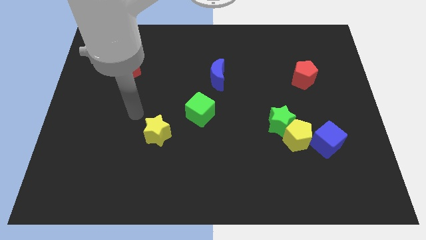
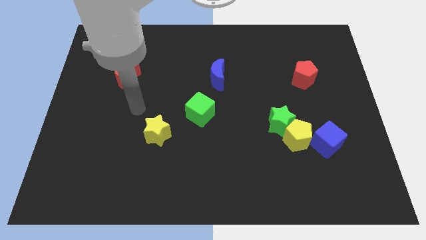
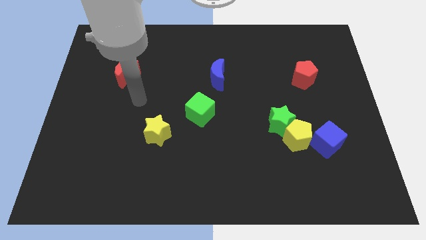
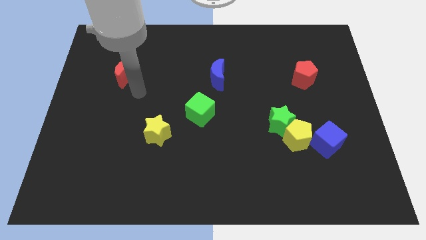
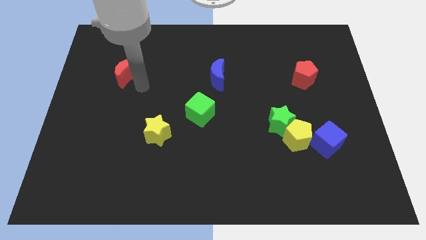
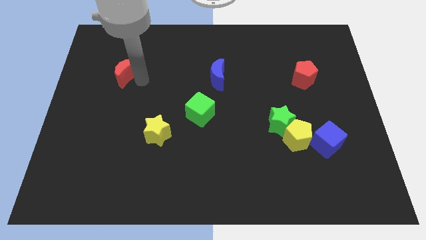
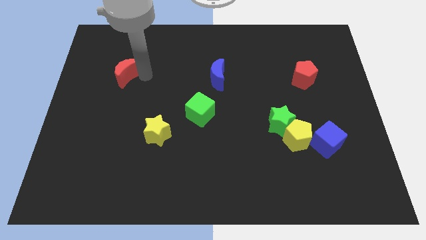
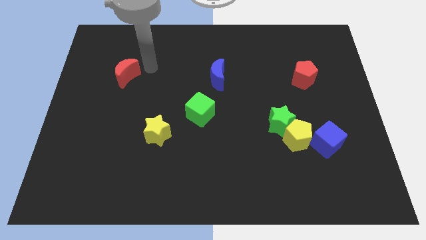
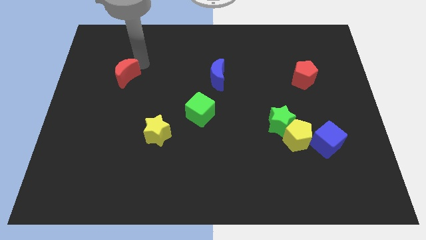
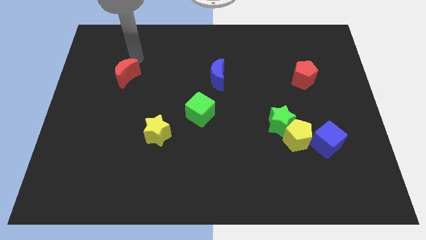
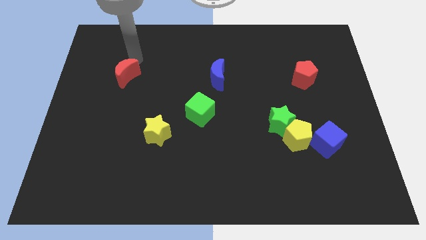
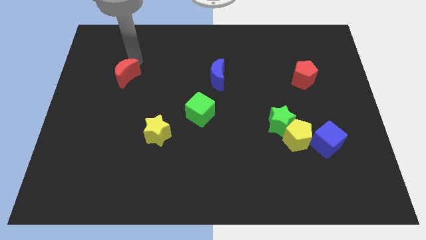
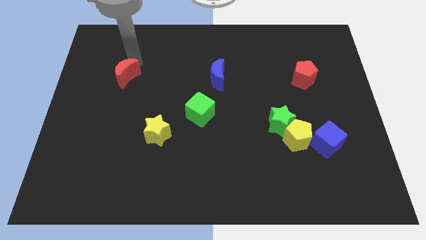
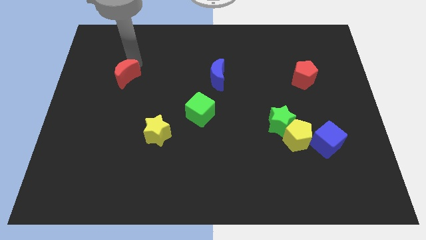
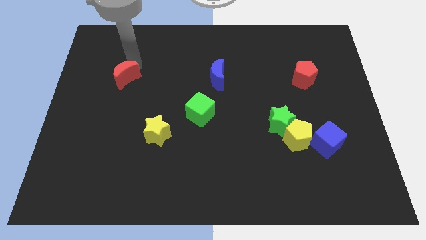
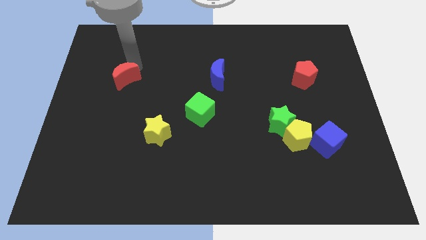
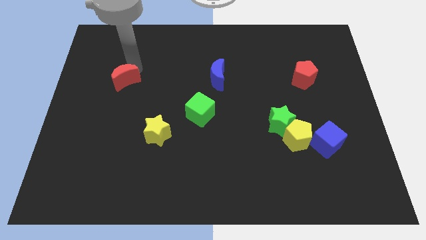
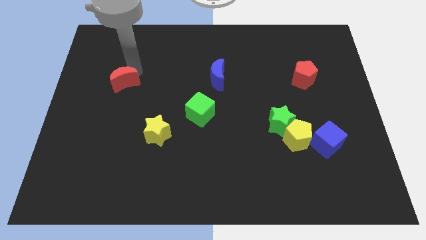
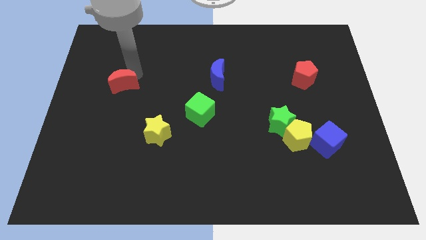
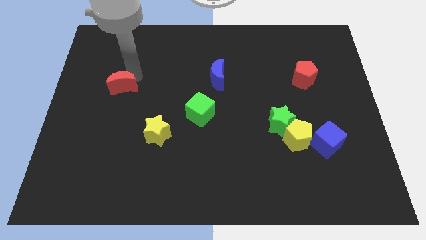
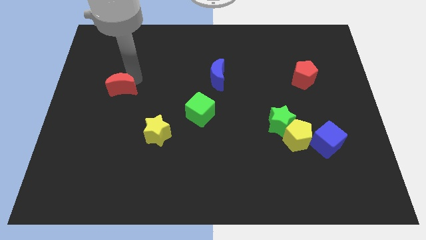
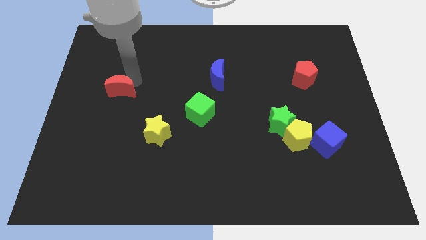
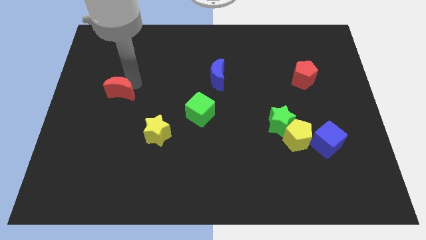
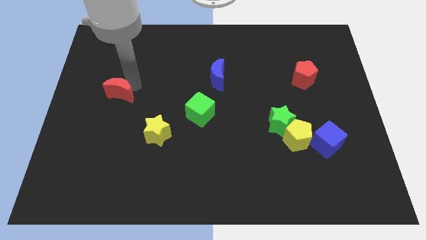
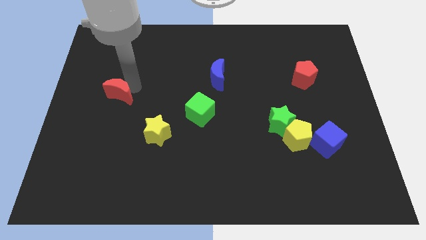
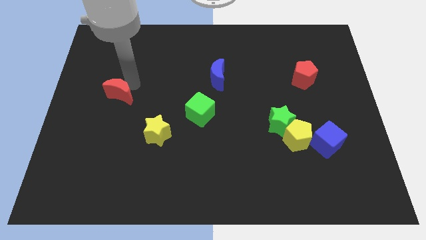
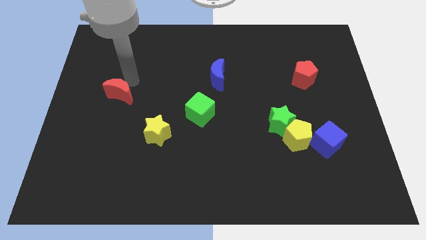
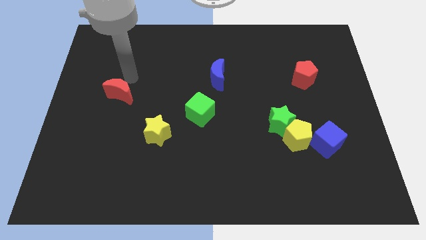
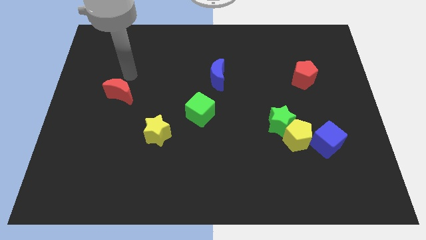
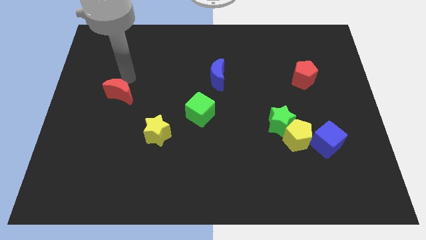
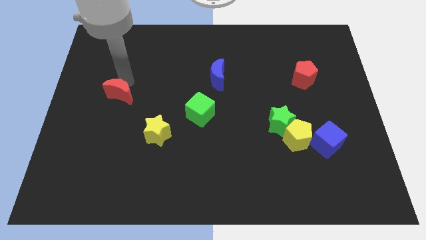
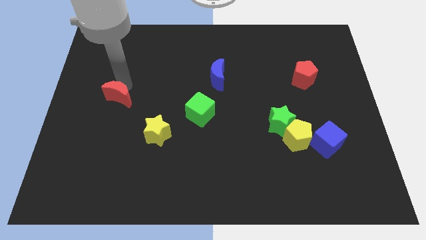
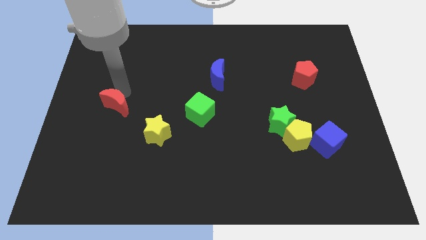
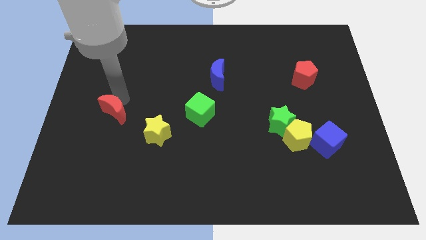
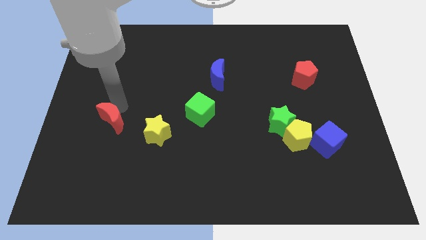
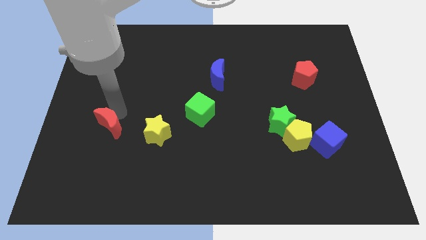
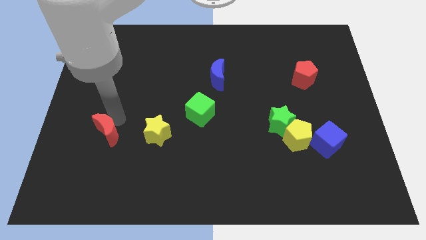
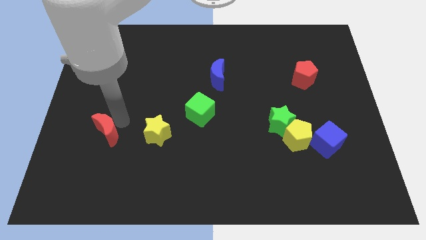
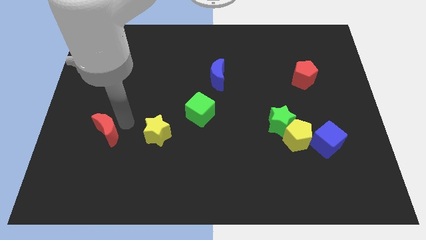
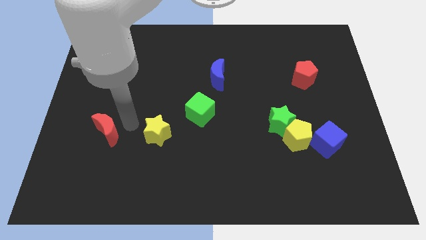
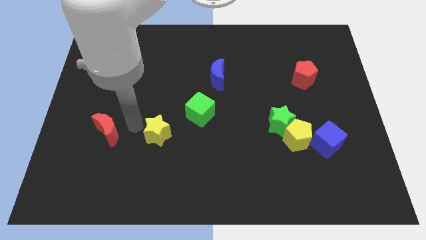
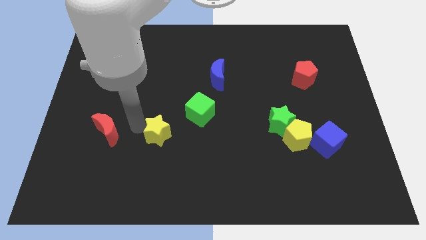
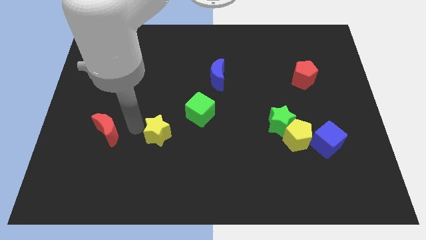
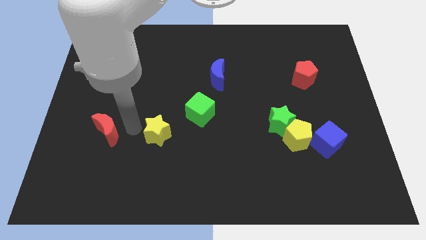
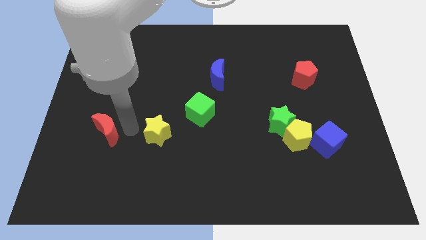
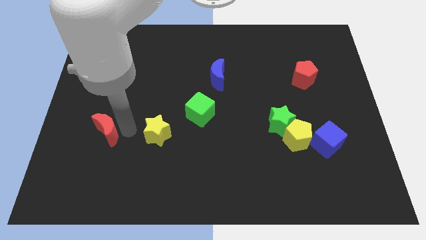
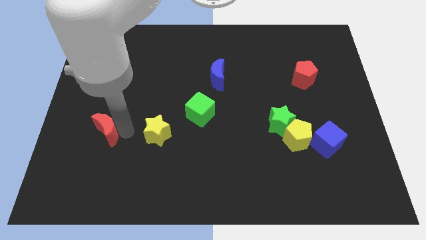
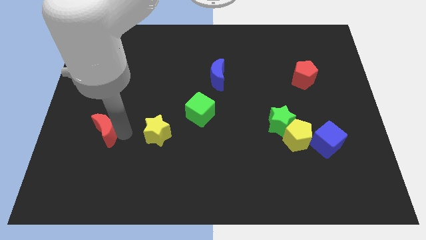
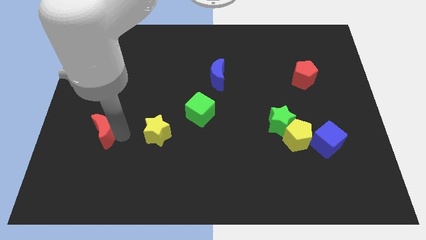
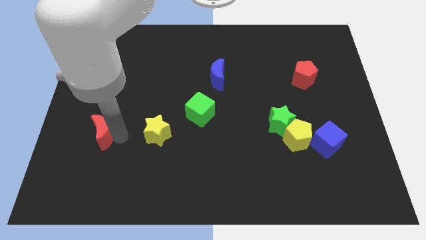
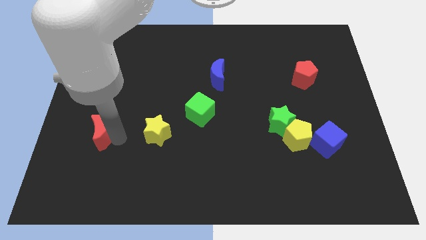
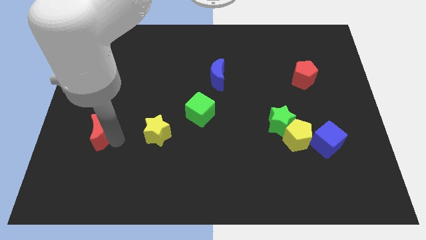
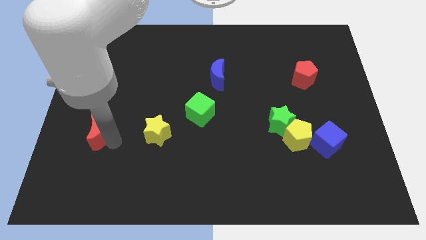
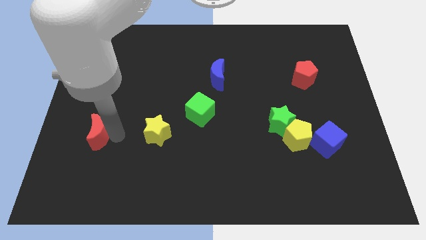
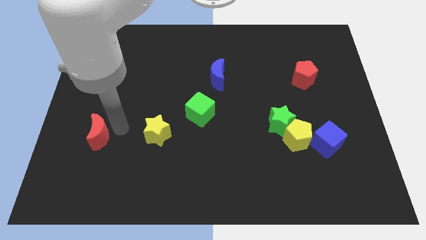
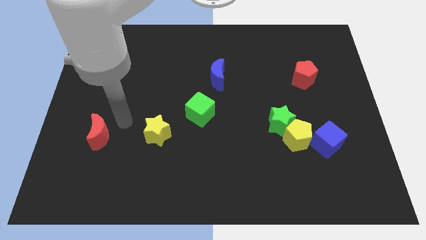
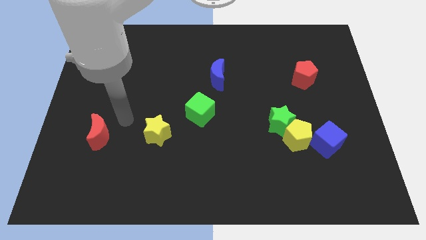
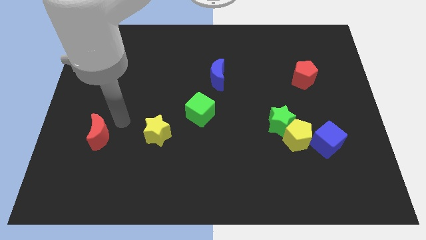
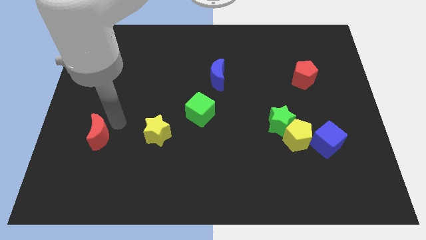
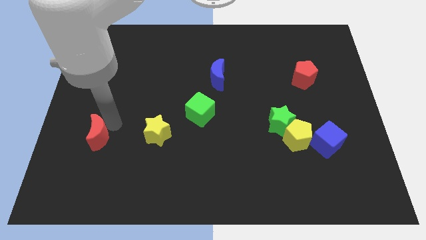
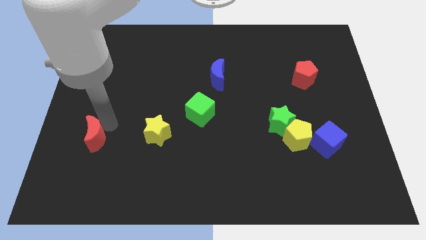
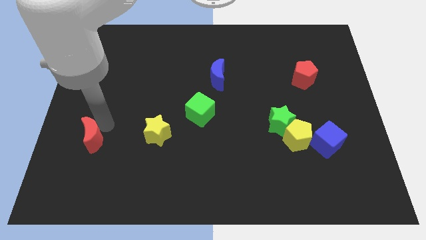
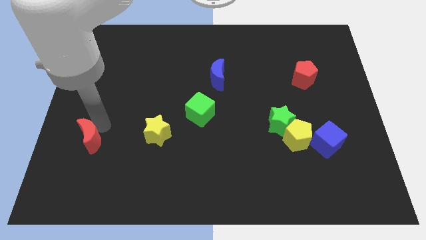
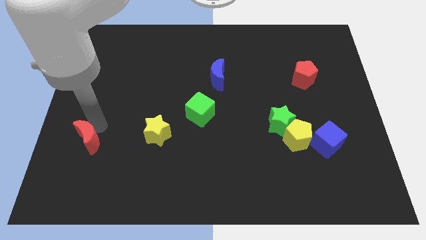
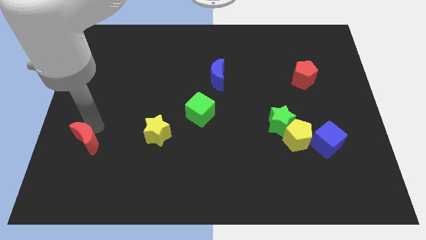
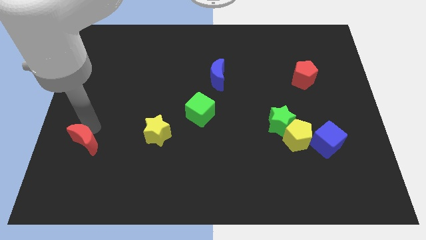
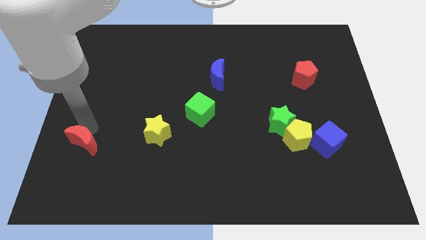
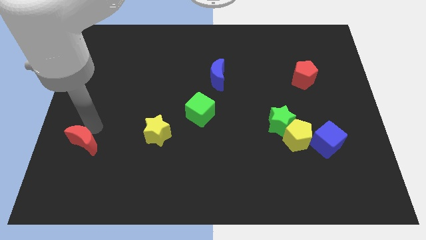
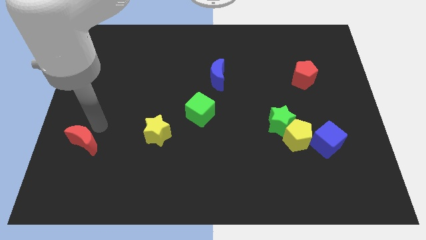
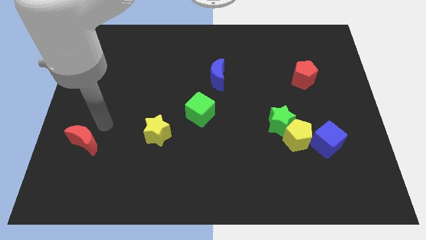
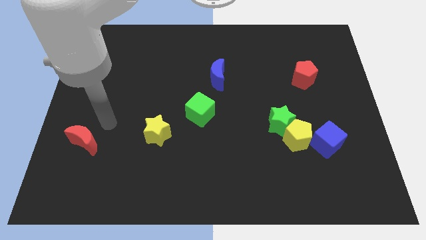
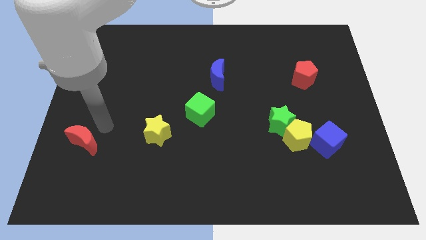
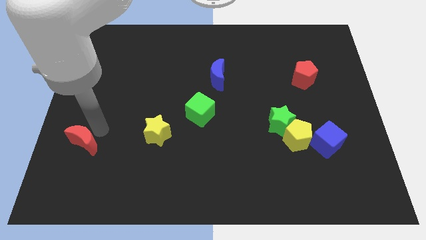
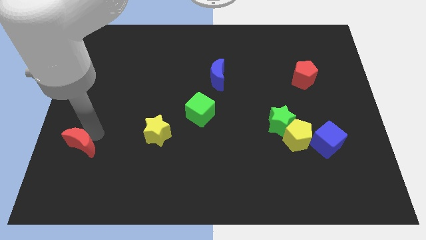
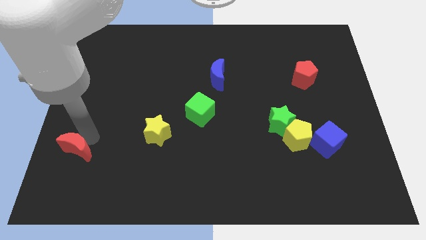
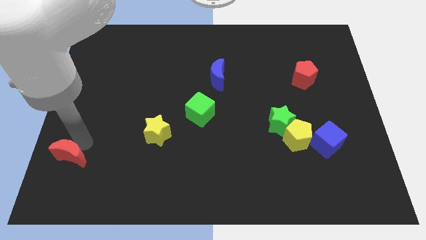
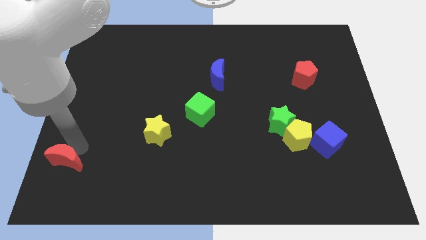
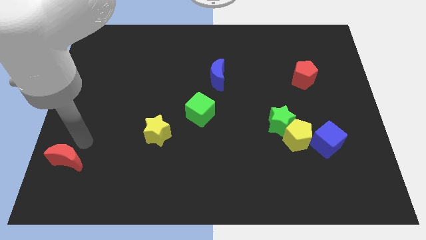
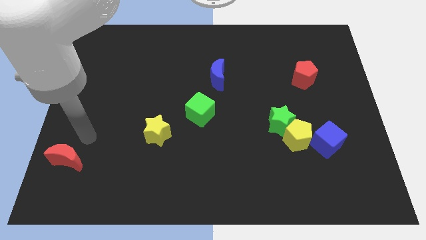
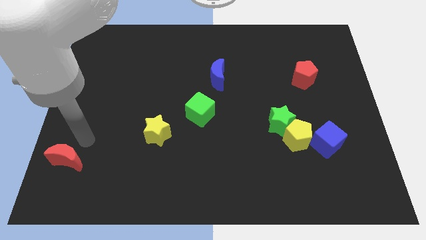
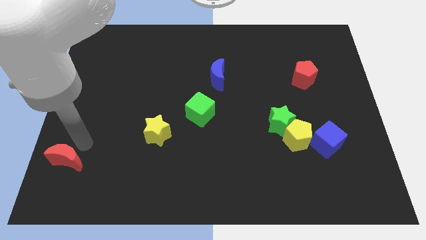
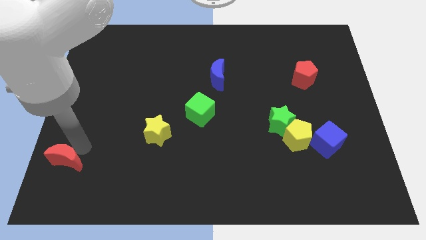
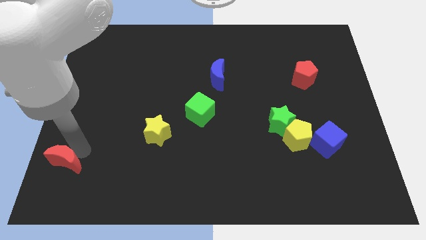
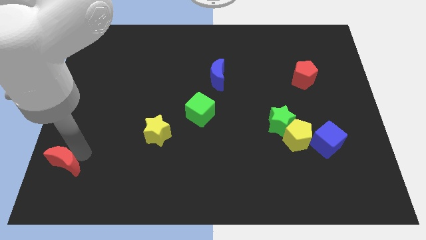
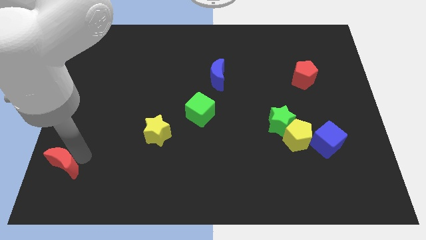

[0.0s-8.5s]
slide the red moon to the bottom left
